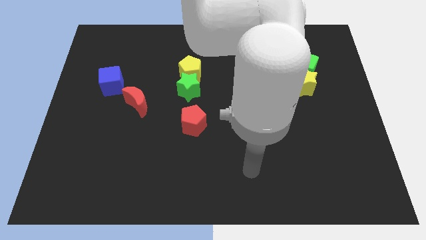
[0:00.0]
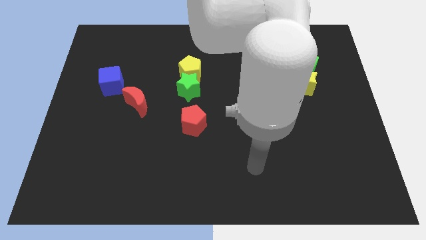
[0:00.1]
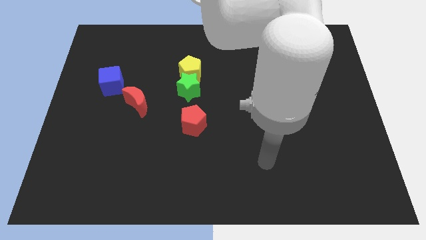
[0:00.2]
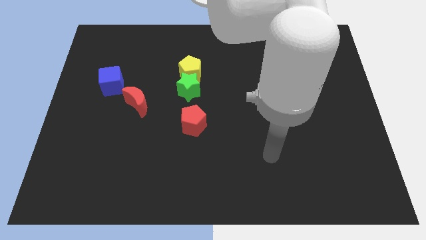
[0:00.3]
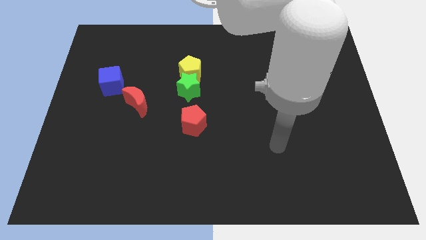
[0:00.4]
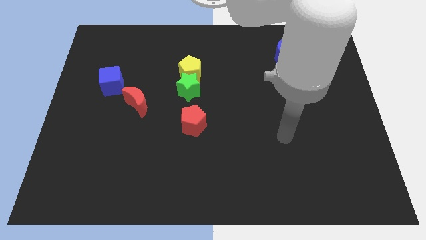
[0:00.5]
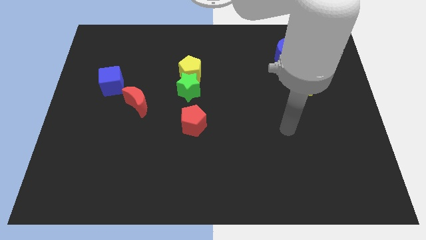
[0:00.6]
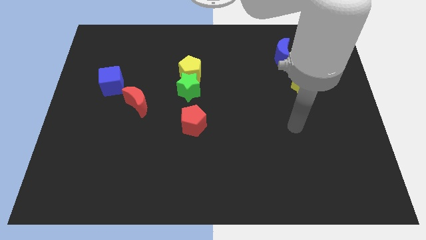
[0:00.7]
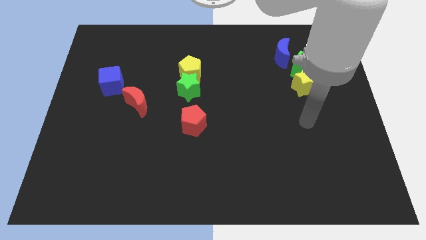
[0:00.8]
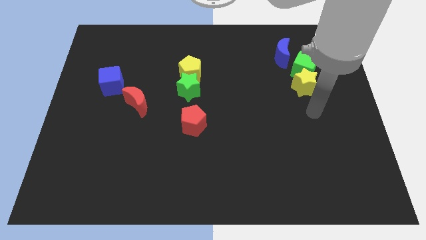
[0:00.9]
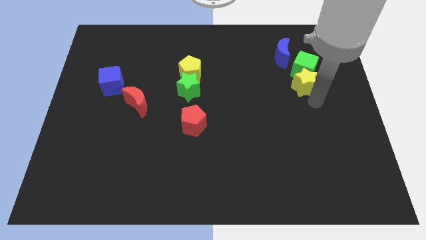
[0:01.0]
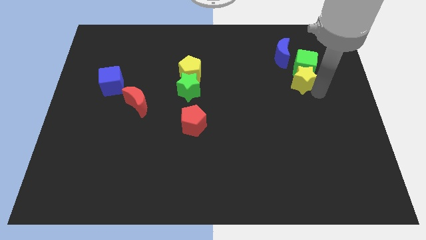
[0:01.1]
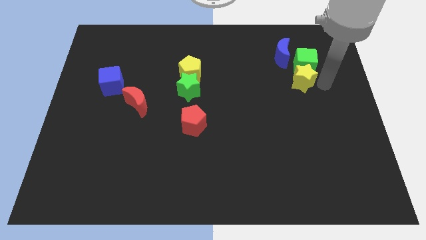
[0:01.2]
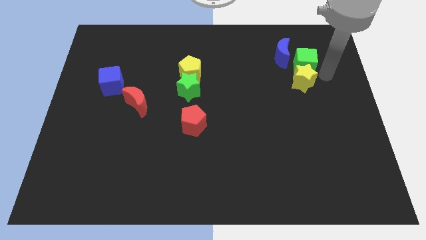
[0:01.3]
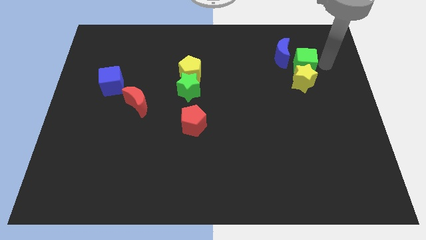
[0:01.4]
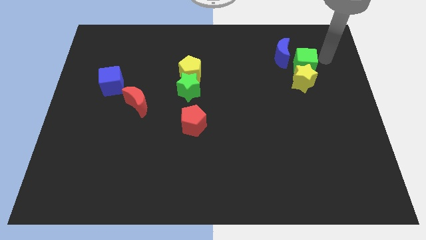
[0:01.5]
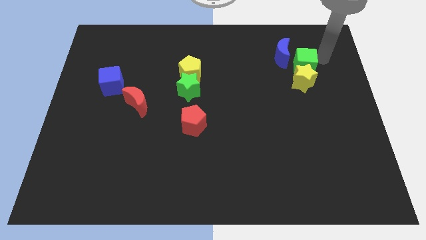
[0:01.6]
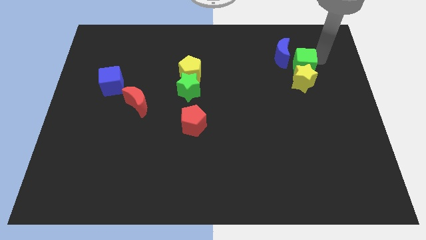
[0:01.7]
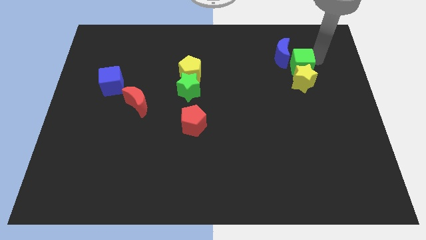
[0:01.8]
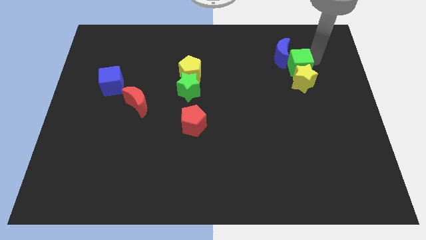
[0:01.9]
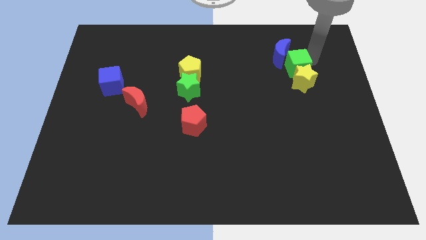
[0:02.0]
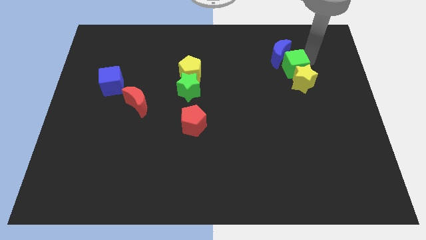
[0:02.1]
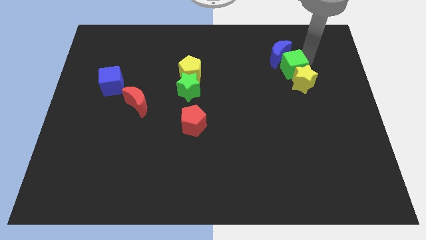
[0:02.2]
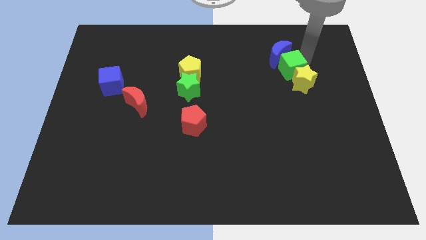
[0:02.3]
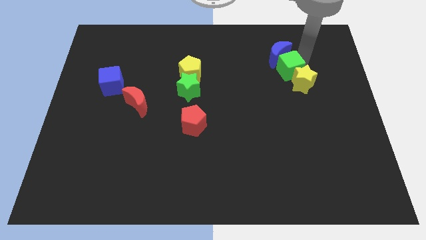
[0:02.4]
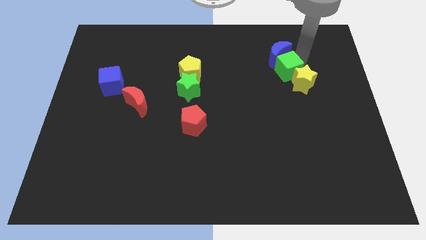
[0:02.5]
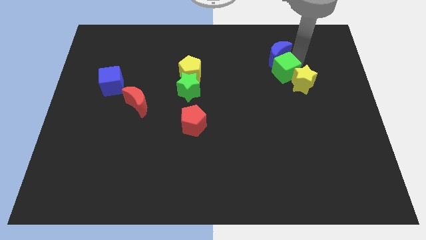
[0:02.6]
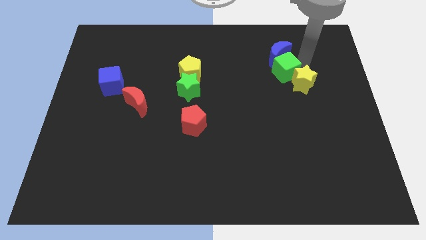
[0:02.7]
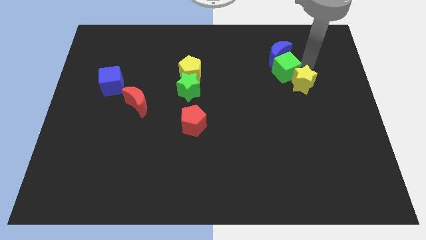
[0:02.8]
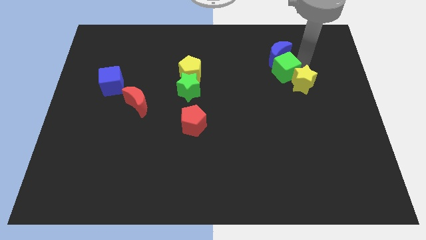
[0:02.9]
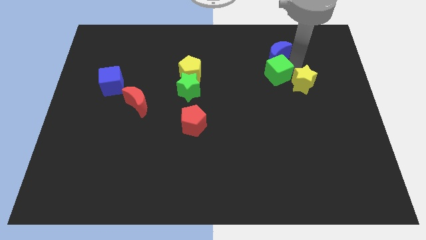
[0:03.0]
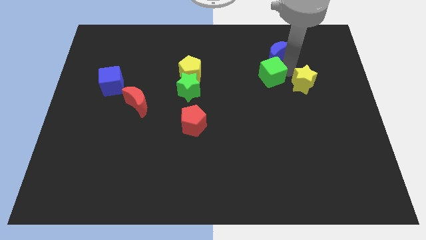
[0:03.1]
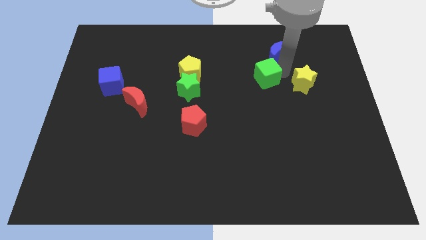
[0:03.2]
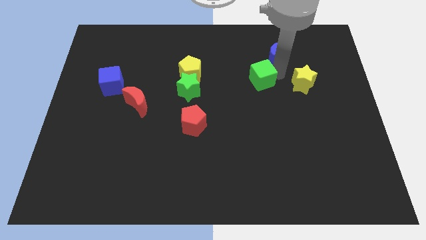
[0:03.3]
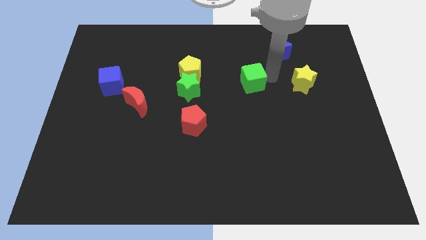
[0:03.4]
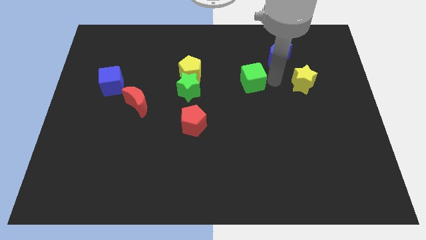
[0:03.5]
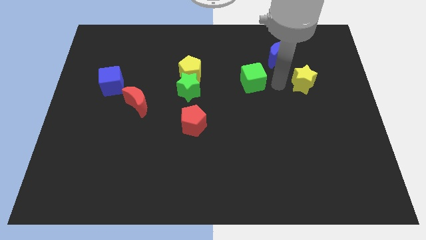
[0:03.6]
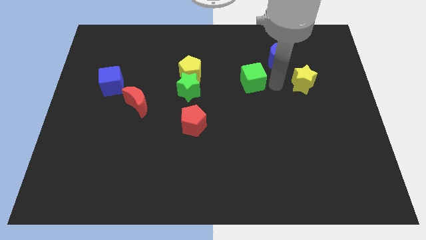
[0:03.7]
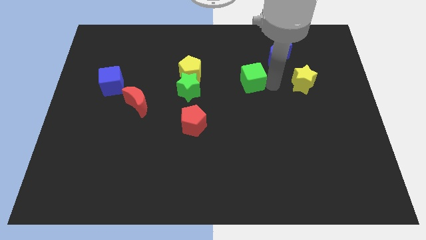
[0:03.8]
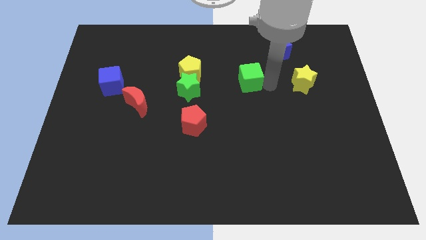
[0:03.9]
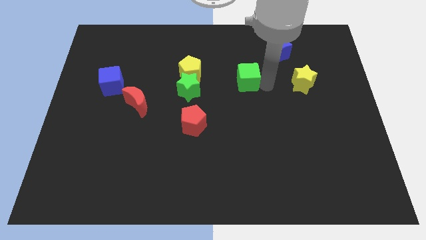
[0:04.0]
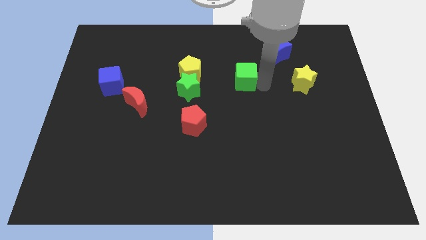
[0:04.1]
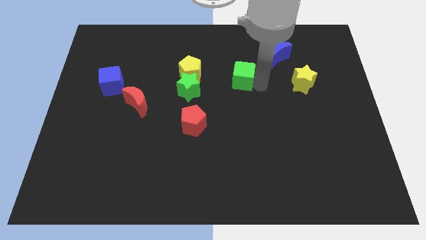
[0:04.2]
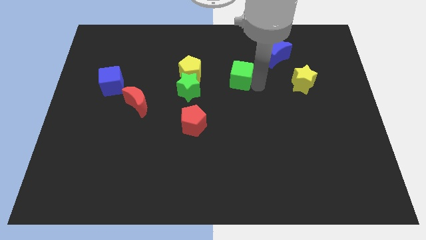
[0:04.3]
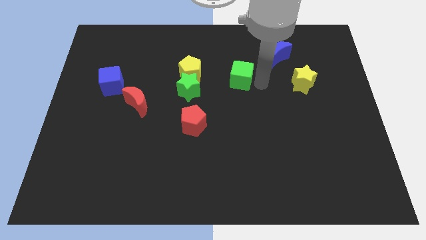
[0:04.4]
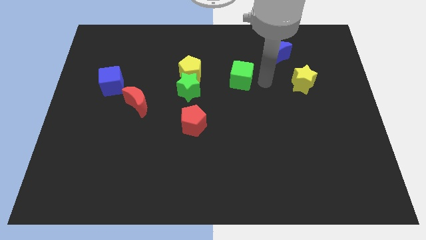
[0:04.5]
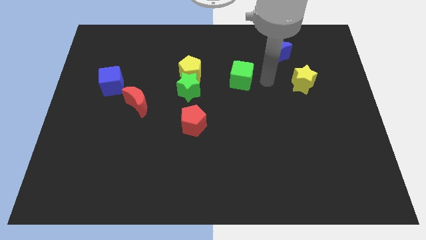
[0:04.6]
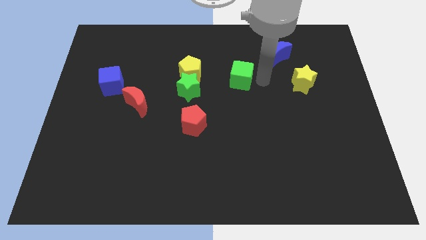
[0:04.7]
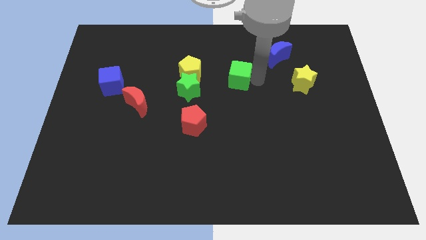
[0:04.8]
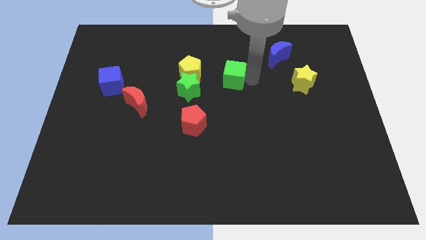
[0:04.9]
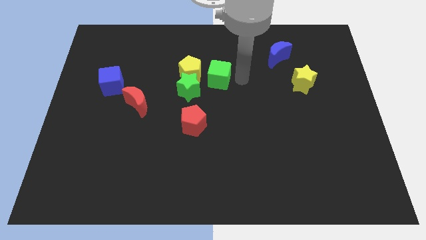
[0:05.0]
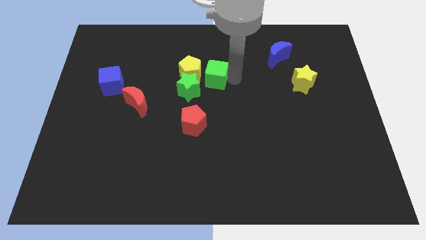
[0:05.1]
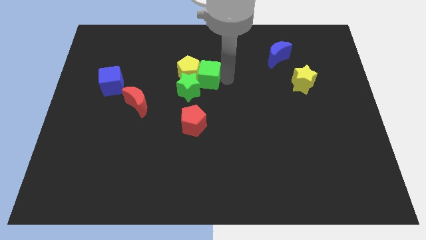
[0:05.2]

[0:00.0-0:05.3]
push the green cube towards the yellow pentagon

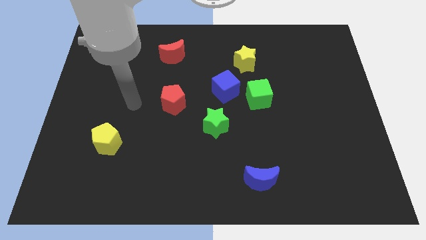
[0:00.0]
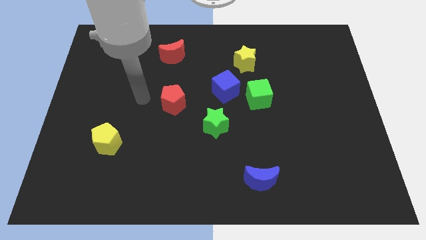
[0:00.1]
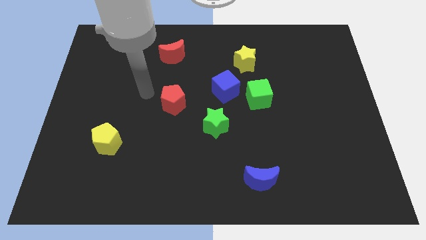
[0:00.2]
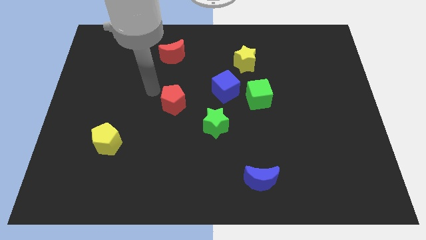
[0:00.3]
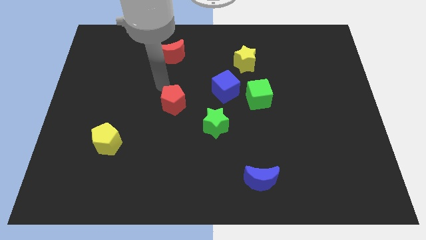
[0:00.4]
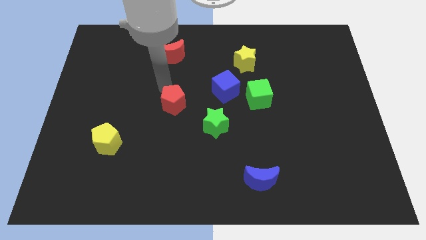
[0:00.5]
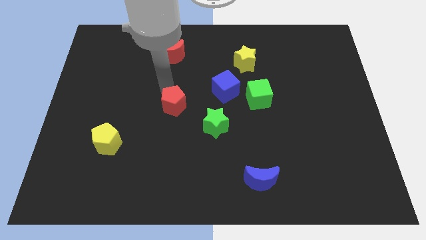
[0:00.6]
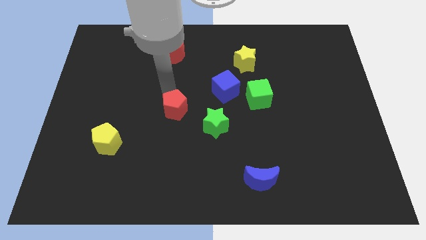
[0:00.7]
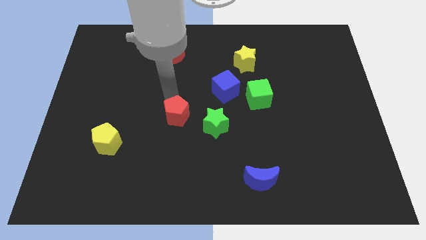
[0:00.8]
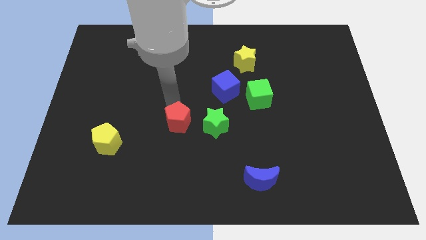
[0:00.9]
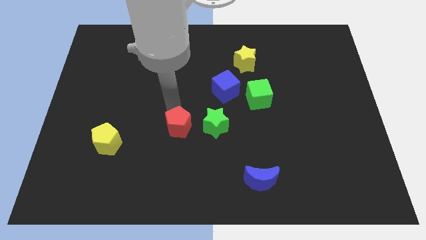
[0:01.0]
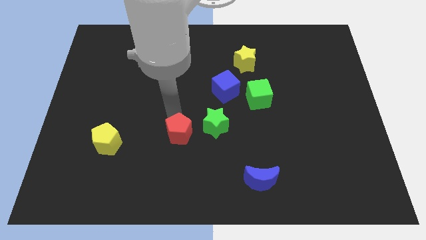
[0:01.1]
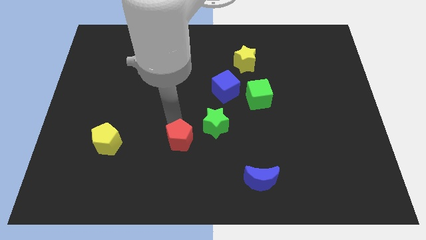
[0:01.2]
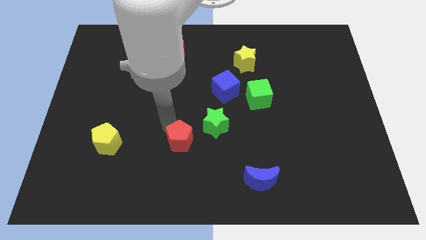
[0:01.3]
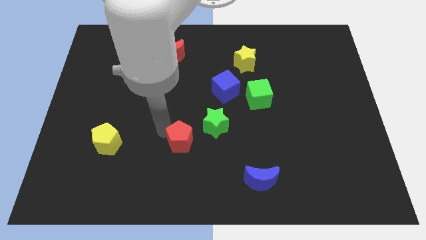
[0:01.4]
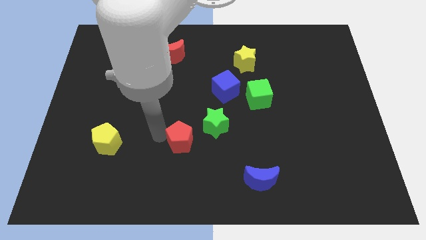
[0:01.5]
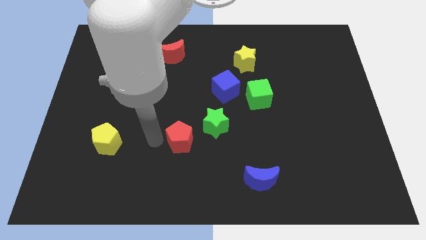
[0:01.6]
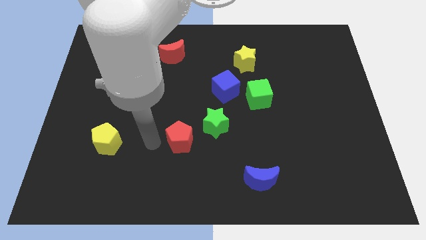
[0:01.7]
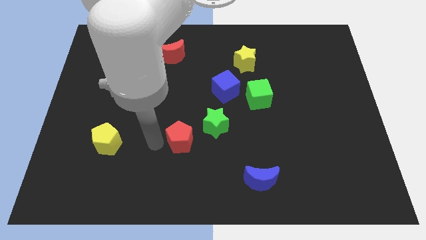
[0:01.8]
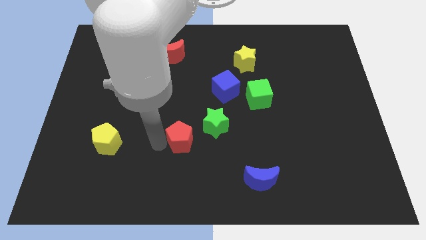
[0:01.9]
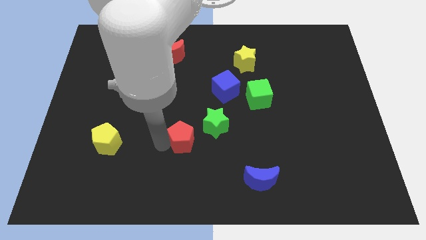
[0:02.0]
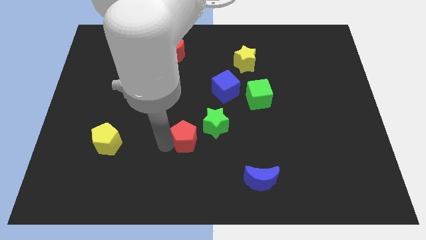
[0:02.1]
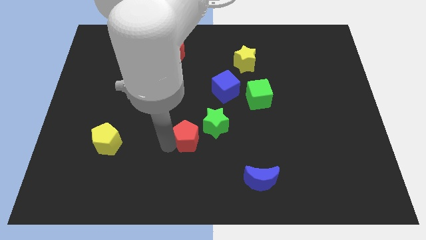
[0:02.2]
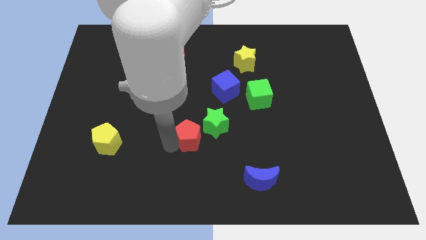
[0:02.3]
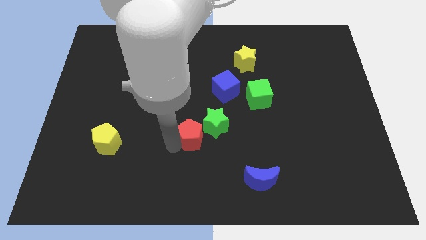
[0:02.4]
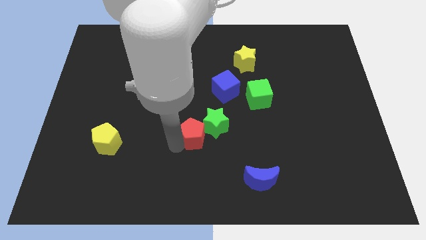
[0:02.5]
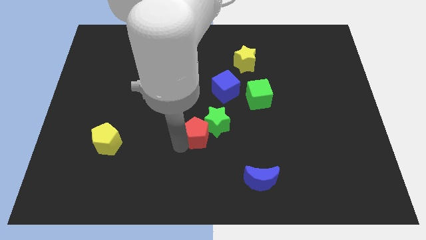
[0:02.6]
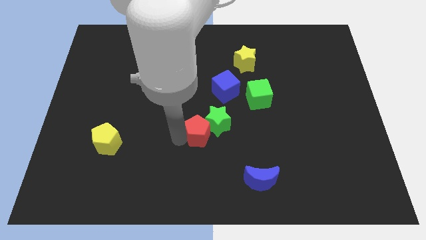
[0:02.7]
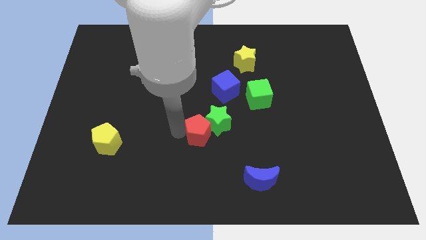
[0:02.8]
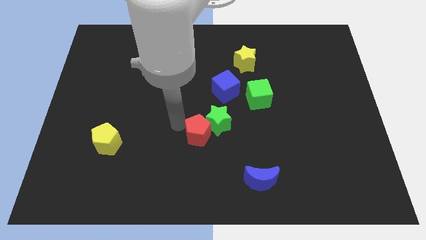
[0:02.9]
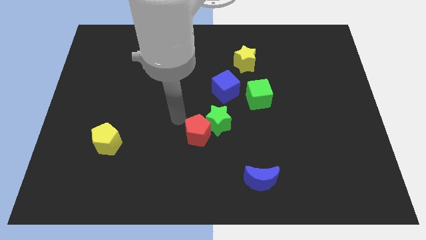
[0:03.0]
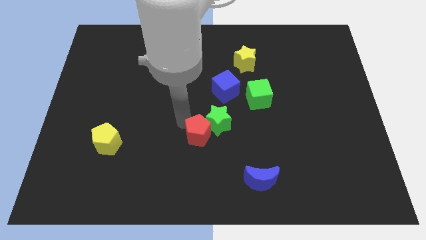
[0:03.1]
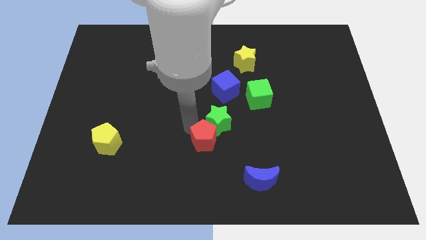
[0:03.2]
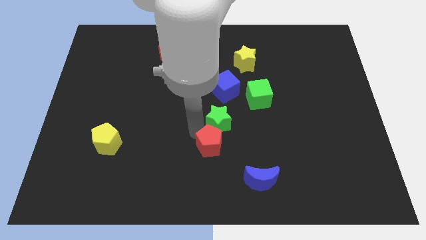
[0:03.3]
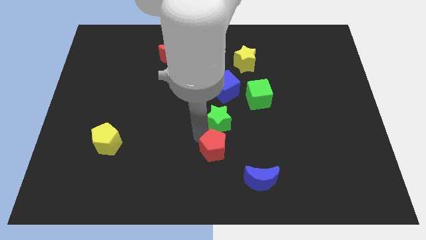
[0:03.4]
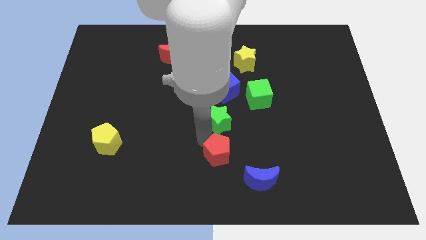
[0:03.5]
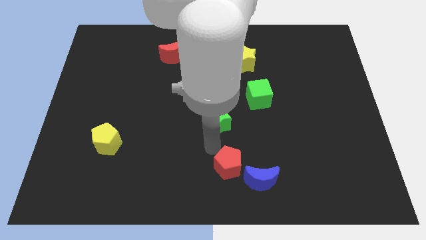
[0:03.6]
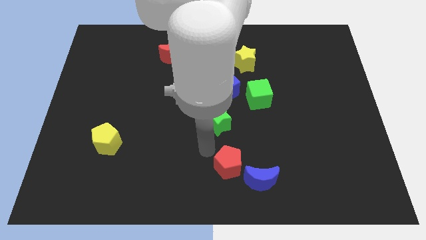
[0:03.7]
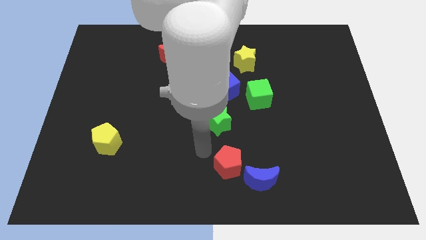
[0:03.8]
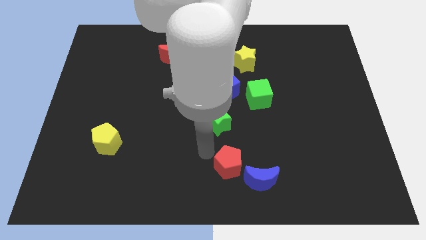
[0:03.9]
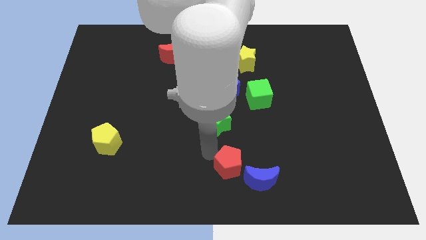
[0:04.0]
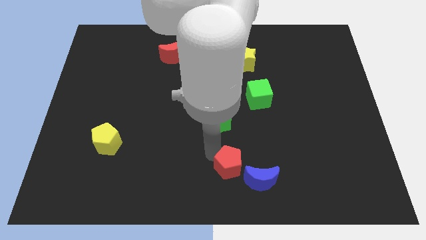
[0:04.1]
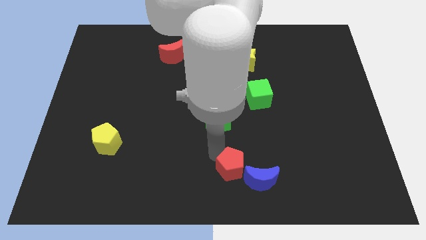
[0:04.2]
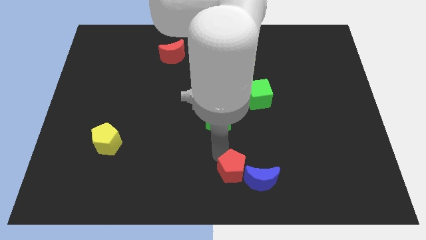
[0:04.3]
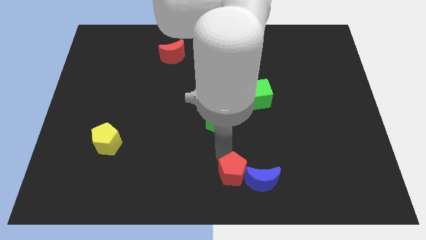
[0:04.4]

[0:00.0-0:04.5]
move the red pentagon towards the blue moon
